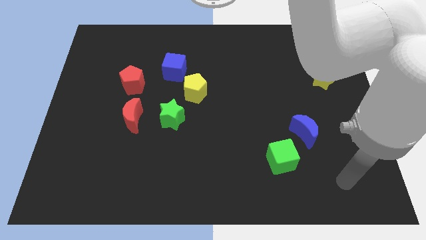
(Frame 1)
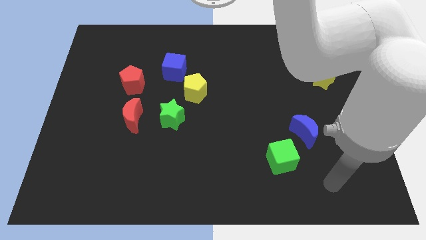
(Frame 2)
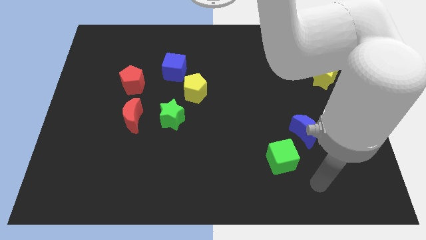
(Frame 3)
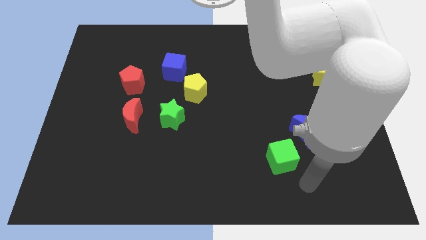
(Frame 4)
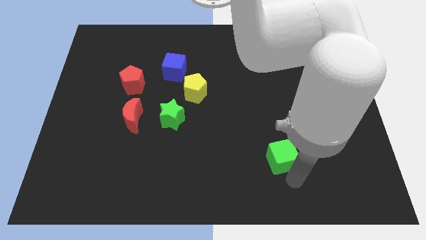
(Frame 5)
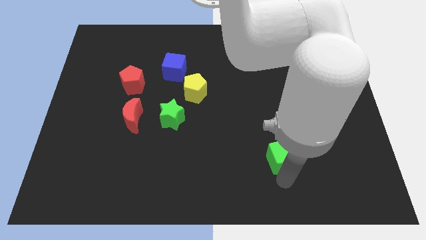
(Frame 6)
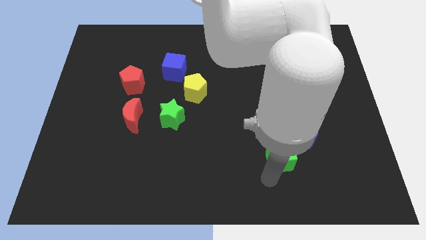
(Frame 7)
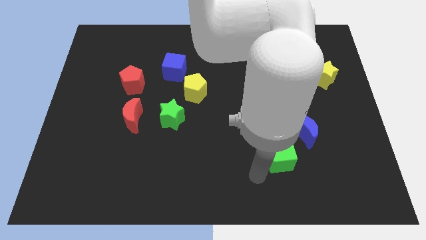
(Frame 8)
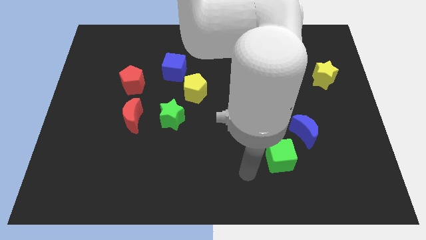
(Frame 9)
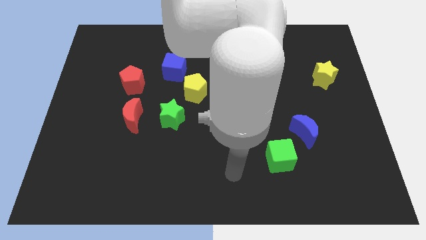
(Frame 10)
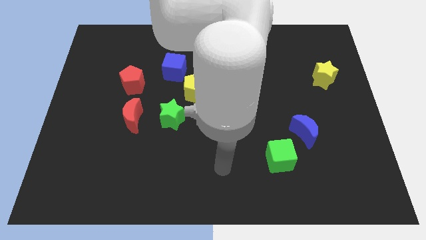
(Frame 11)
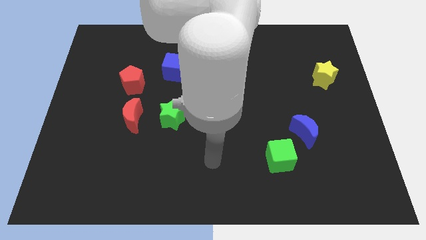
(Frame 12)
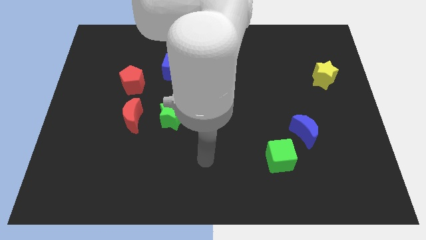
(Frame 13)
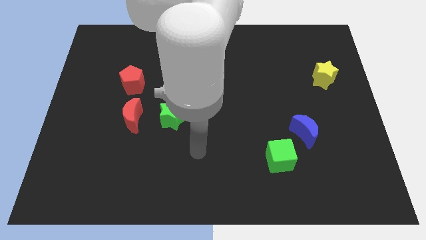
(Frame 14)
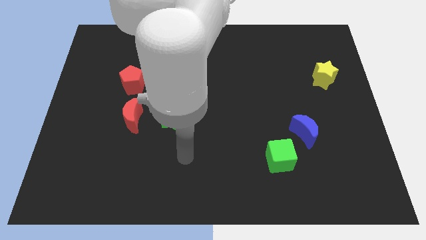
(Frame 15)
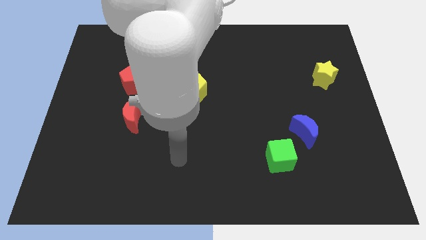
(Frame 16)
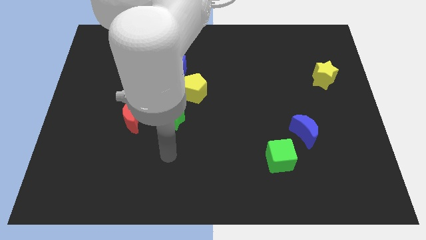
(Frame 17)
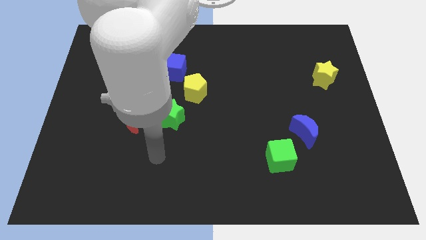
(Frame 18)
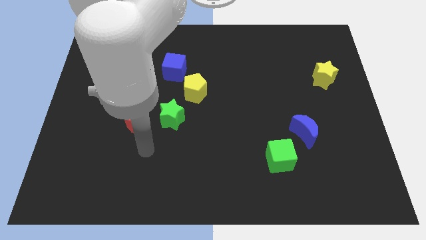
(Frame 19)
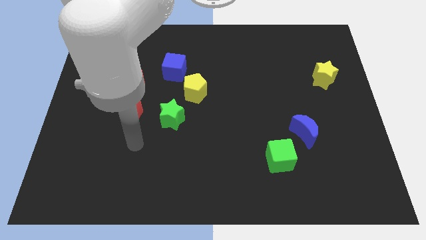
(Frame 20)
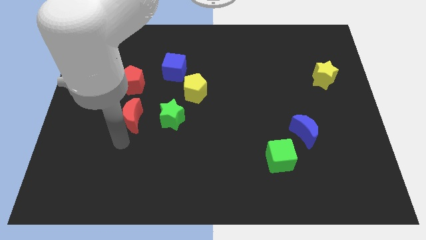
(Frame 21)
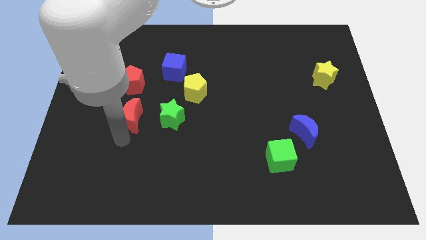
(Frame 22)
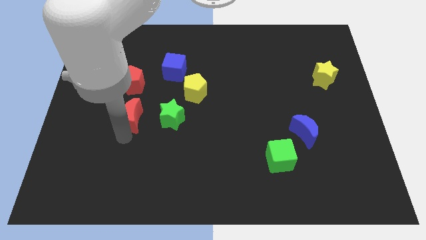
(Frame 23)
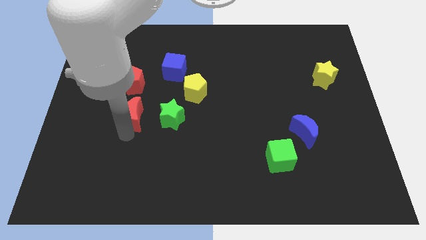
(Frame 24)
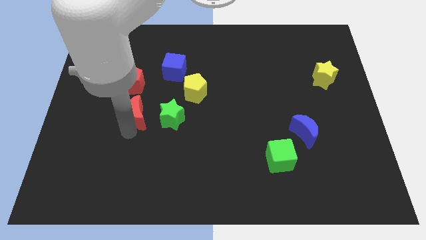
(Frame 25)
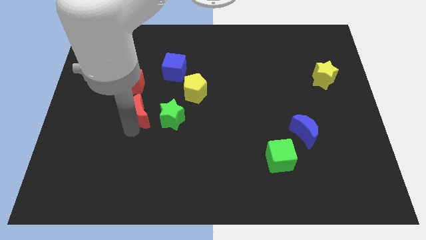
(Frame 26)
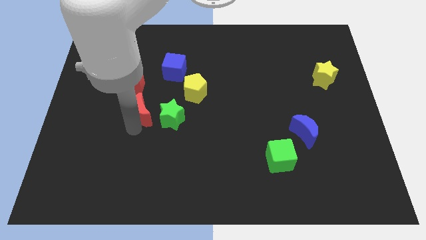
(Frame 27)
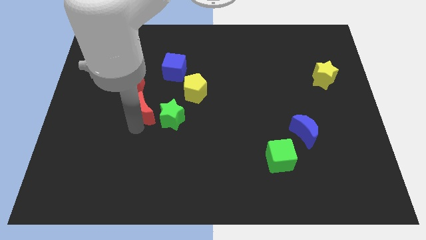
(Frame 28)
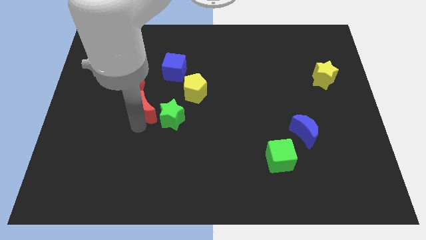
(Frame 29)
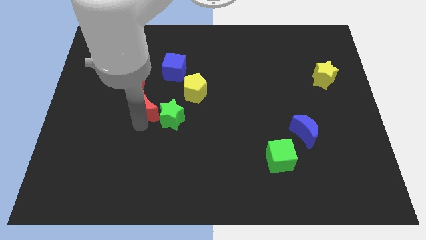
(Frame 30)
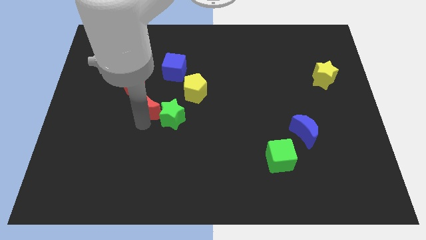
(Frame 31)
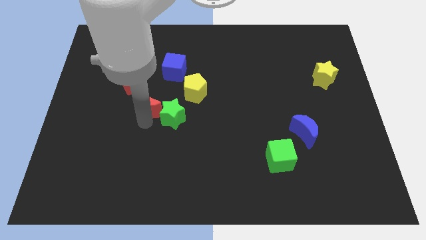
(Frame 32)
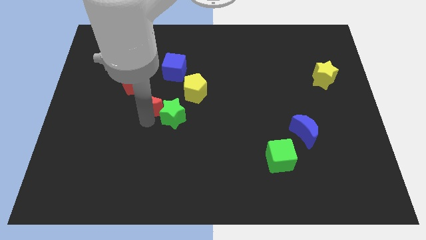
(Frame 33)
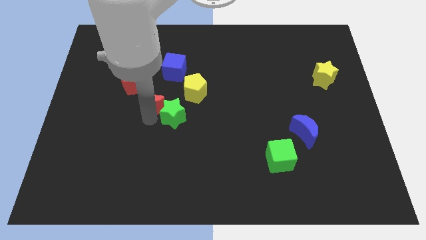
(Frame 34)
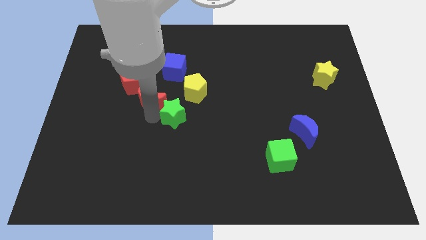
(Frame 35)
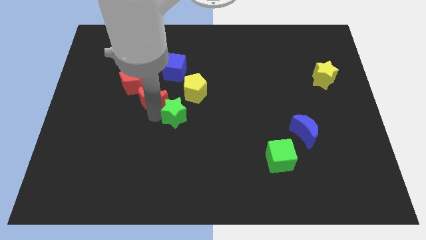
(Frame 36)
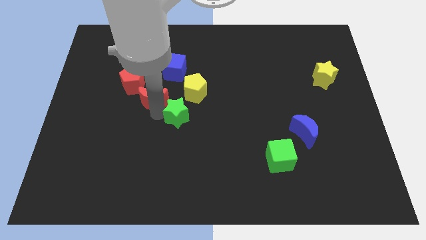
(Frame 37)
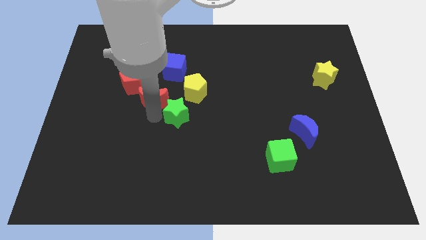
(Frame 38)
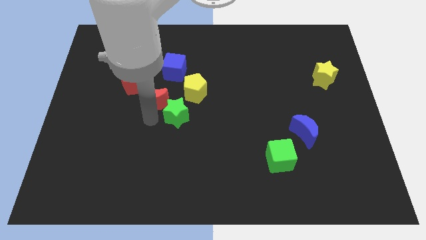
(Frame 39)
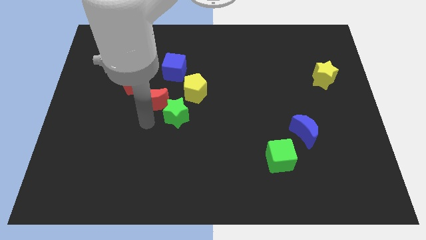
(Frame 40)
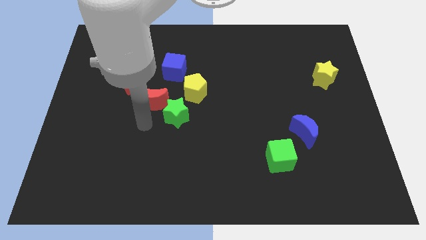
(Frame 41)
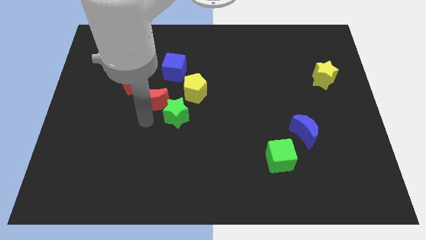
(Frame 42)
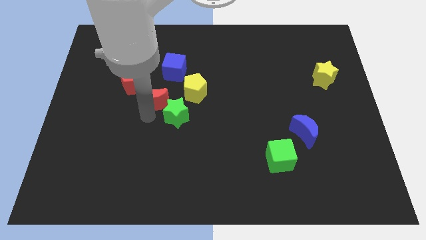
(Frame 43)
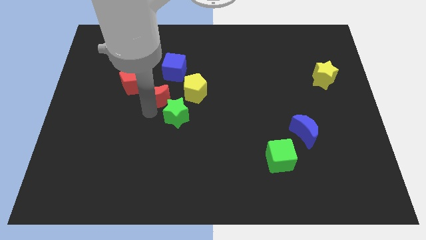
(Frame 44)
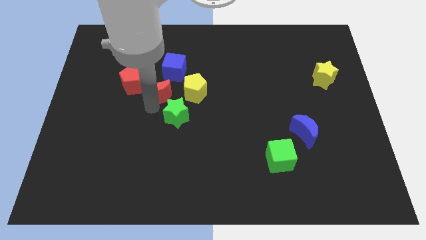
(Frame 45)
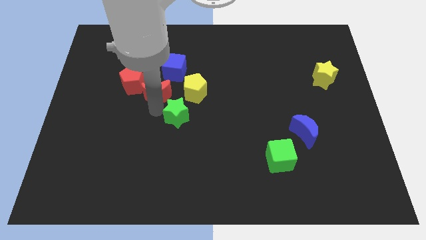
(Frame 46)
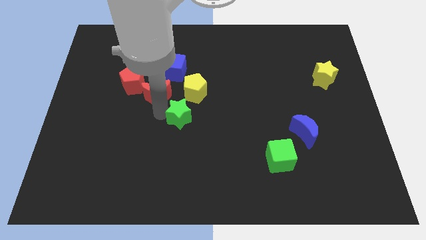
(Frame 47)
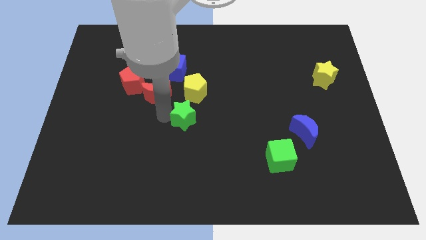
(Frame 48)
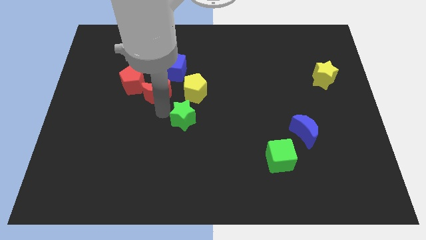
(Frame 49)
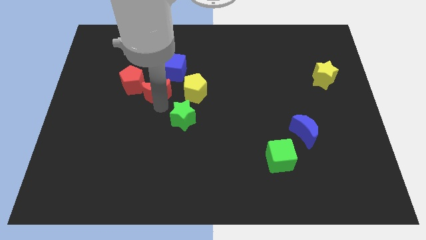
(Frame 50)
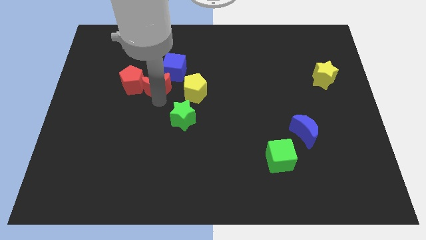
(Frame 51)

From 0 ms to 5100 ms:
slide the red moon upwards a bit

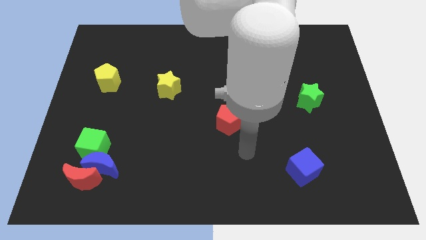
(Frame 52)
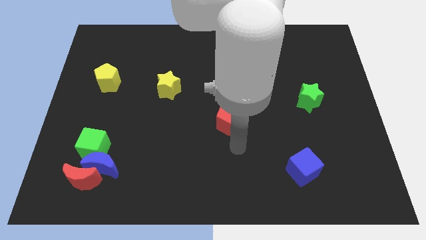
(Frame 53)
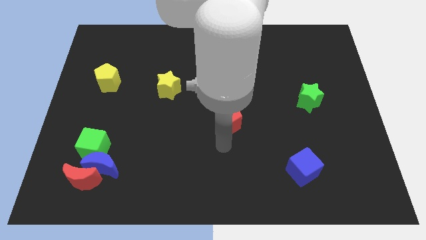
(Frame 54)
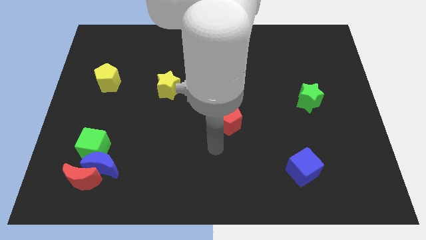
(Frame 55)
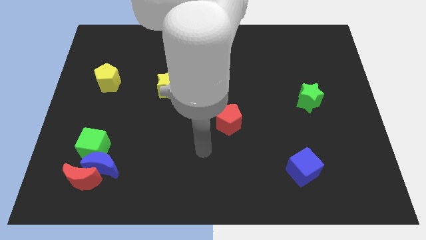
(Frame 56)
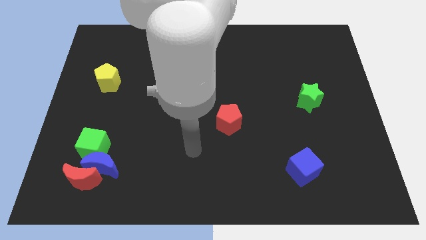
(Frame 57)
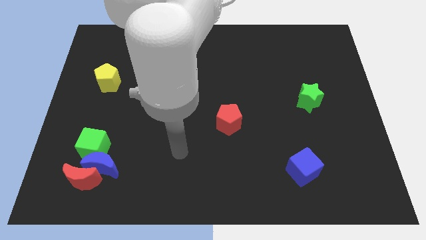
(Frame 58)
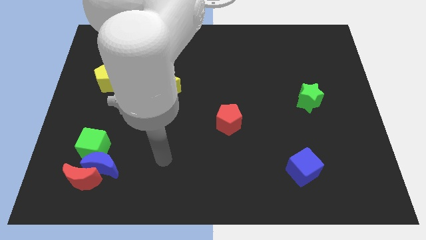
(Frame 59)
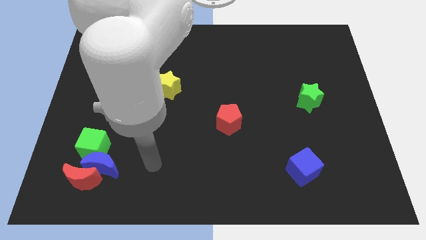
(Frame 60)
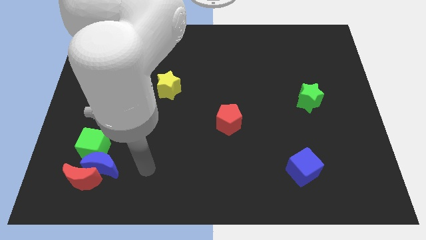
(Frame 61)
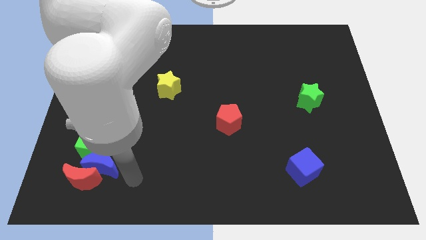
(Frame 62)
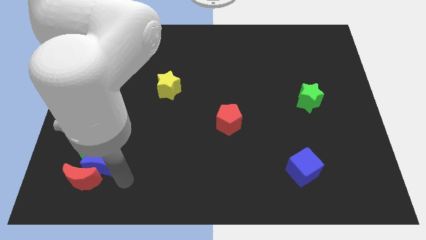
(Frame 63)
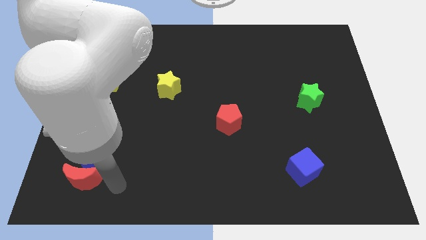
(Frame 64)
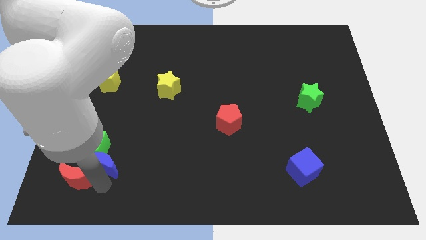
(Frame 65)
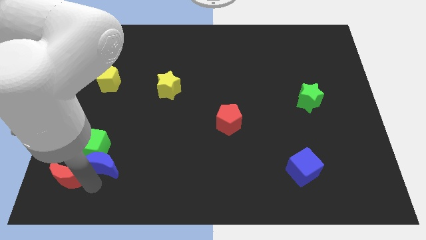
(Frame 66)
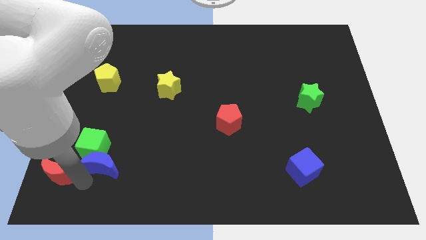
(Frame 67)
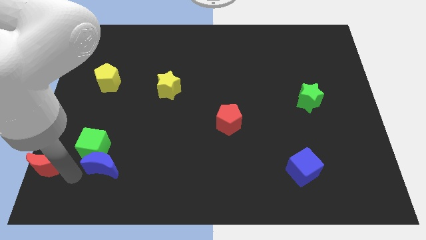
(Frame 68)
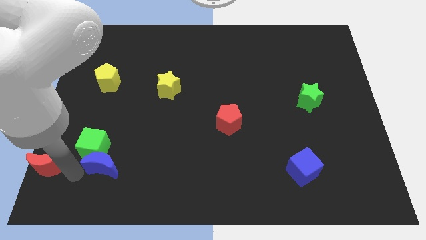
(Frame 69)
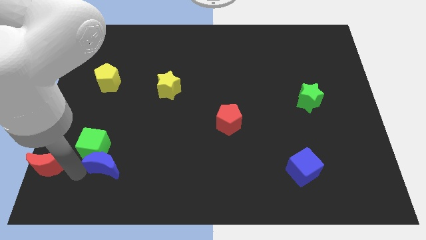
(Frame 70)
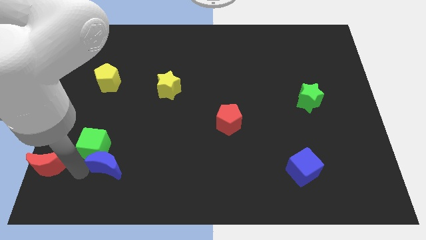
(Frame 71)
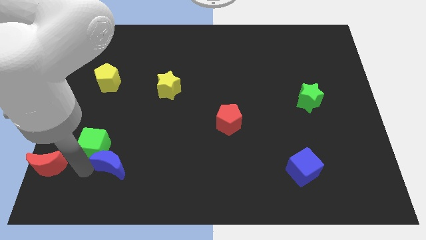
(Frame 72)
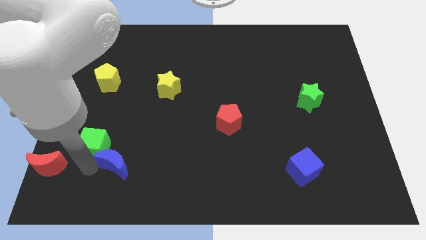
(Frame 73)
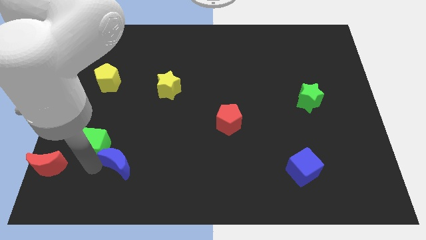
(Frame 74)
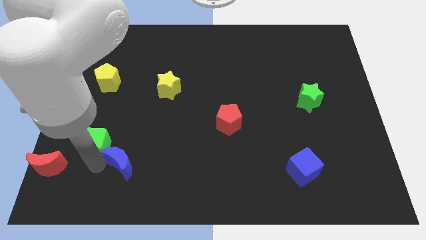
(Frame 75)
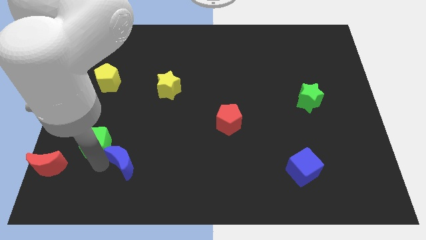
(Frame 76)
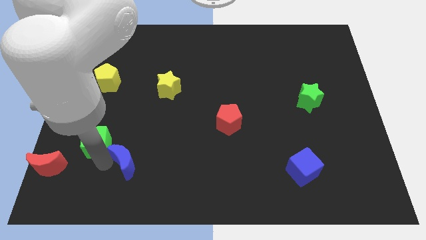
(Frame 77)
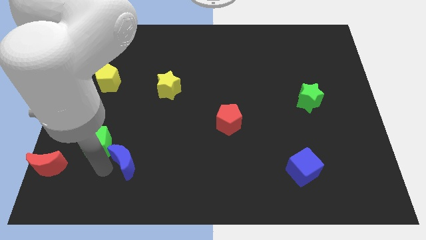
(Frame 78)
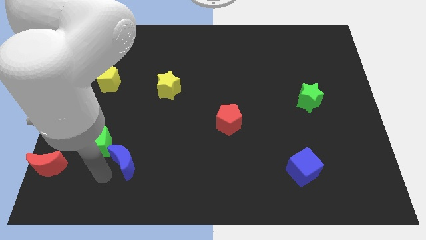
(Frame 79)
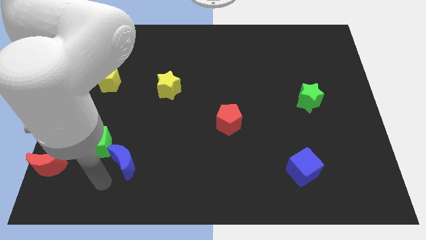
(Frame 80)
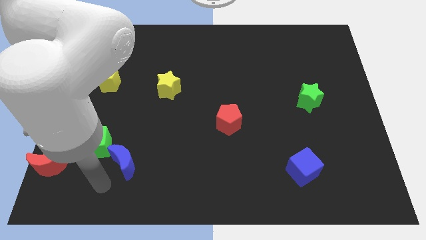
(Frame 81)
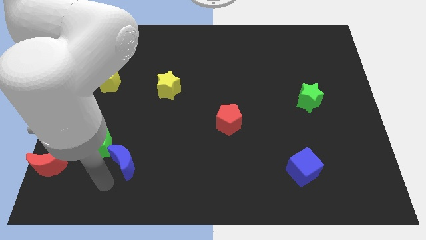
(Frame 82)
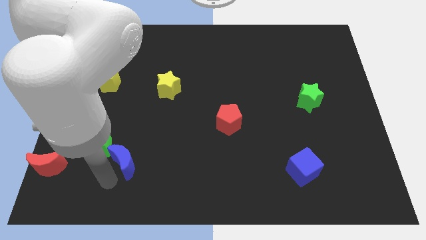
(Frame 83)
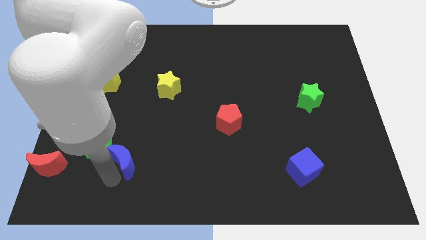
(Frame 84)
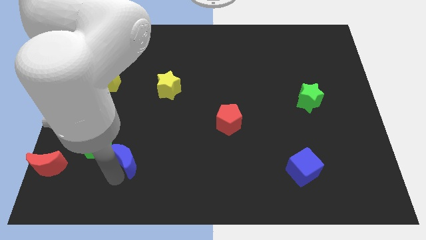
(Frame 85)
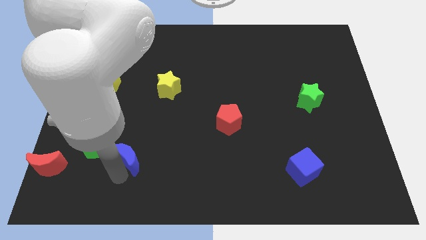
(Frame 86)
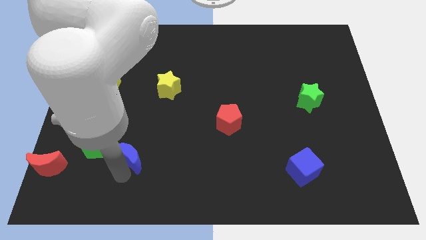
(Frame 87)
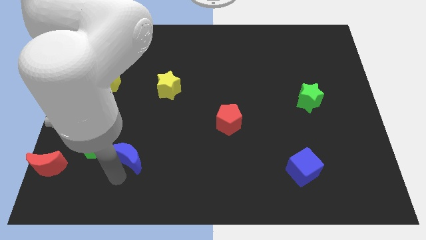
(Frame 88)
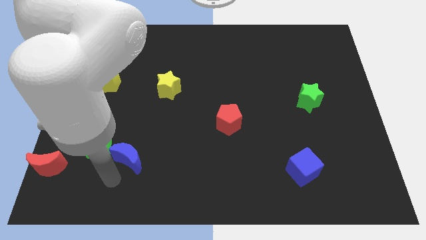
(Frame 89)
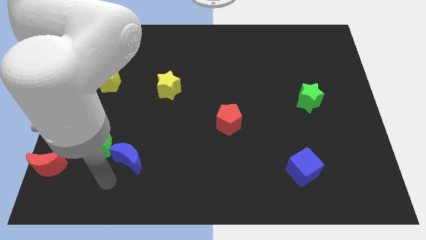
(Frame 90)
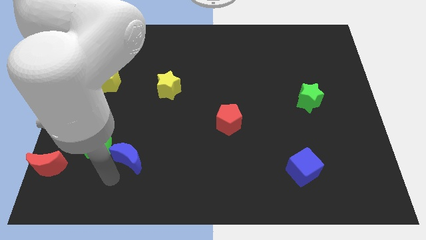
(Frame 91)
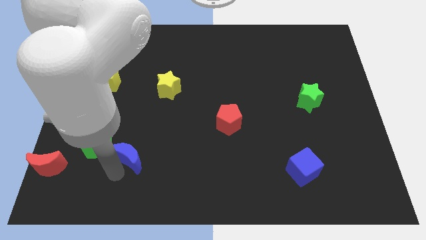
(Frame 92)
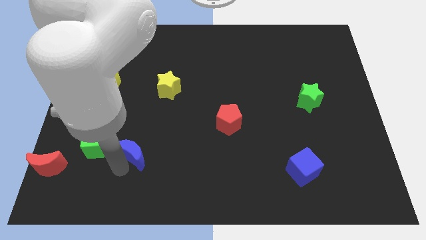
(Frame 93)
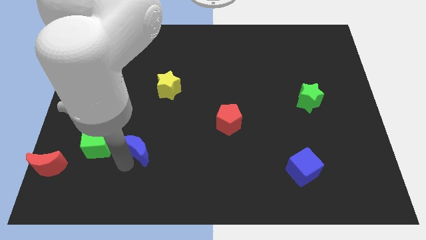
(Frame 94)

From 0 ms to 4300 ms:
move the blue moon upwards and then to the right somewhat
